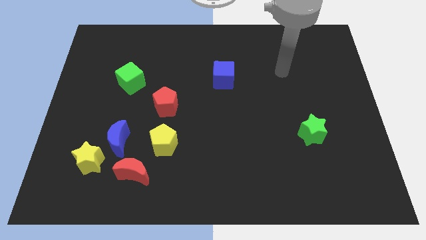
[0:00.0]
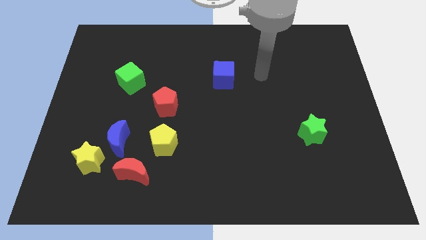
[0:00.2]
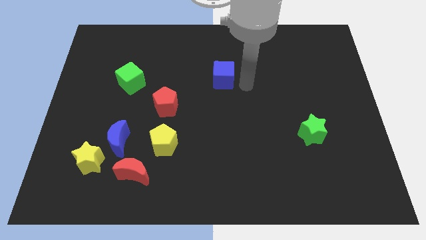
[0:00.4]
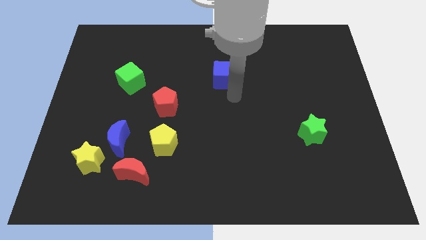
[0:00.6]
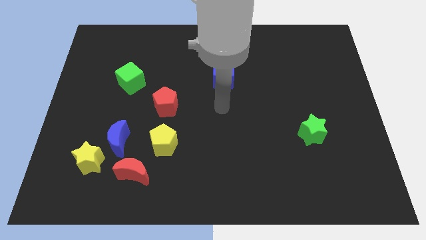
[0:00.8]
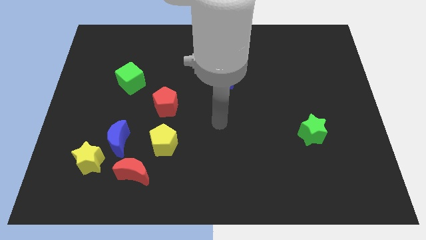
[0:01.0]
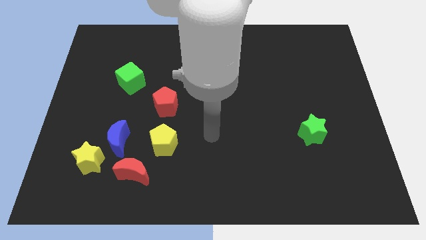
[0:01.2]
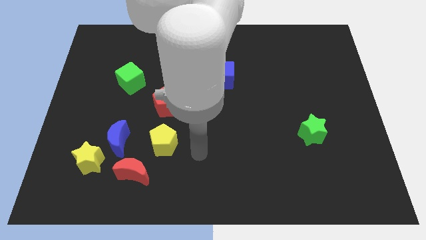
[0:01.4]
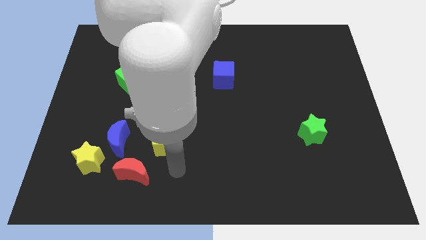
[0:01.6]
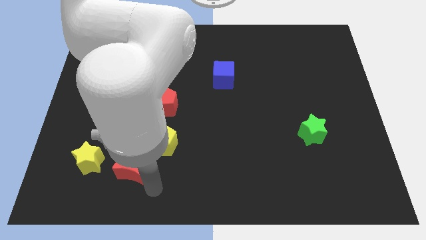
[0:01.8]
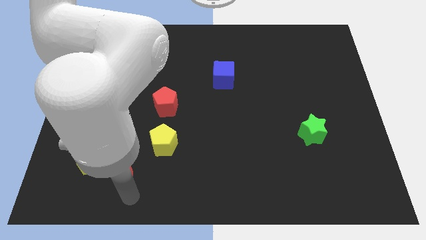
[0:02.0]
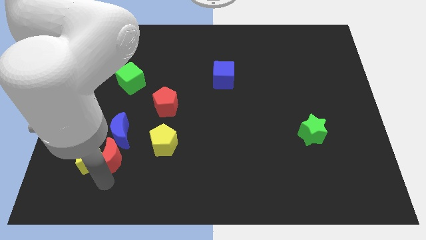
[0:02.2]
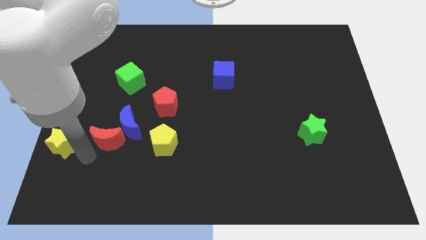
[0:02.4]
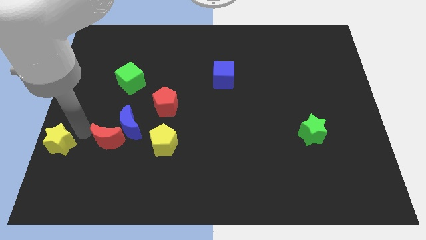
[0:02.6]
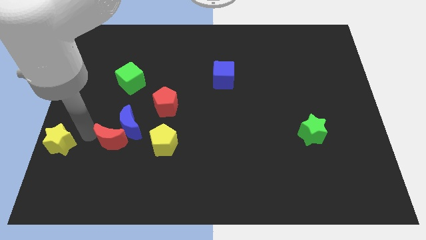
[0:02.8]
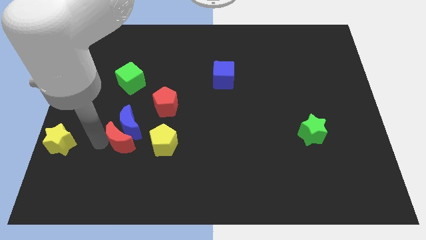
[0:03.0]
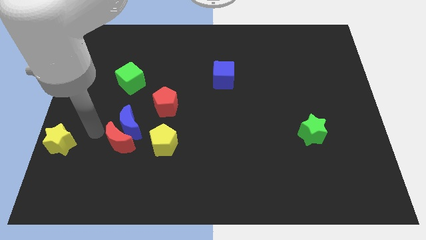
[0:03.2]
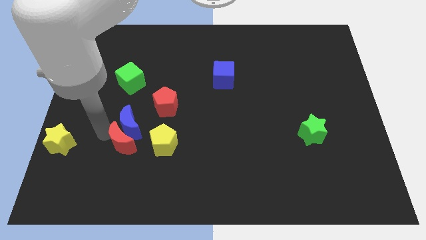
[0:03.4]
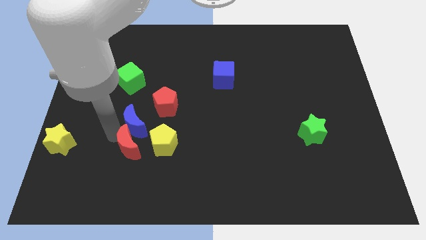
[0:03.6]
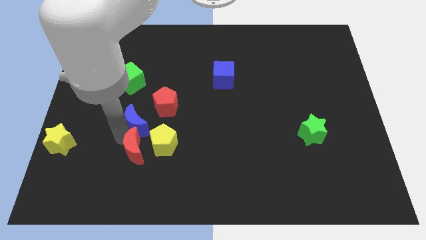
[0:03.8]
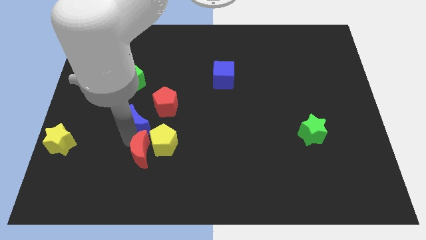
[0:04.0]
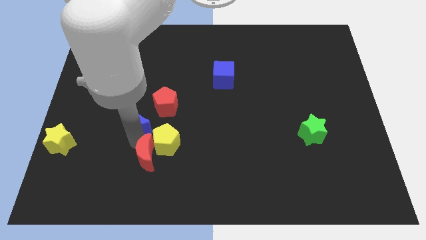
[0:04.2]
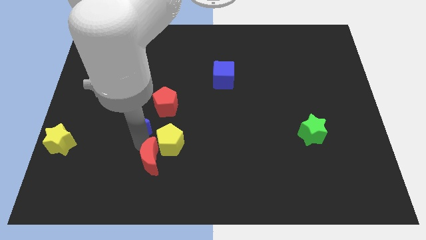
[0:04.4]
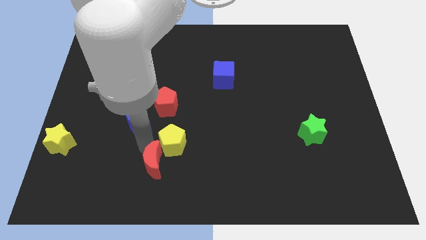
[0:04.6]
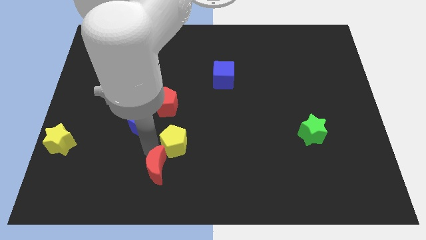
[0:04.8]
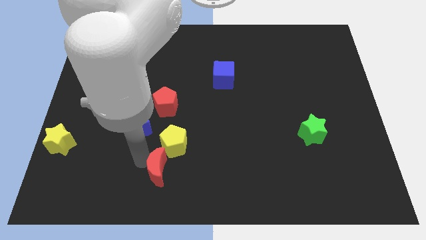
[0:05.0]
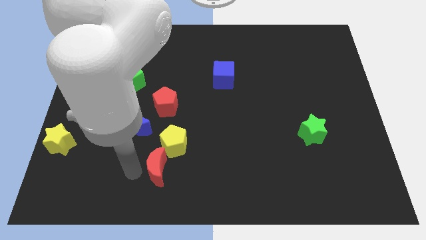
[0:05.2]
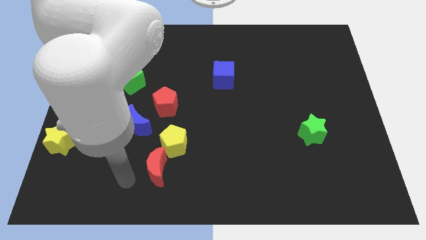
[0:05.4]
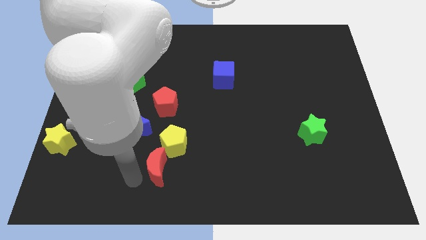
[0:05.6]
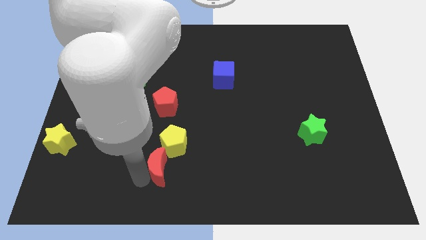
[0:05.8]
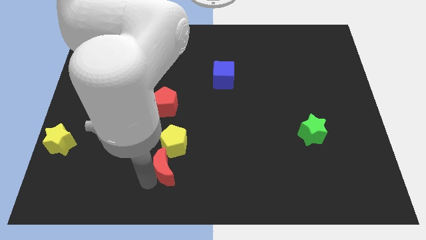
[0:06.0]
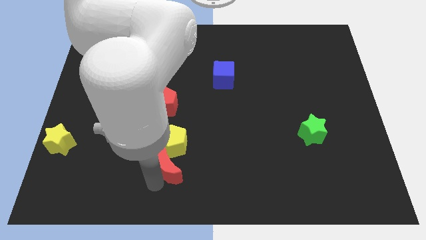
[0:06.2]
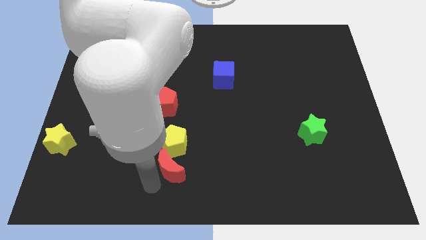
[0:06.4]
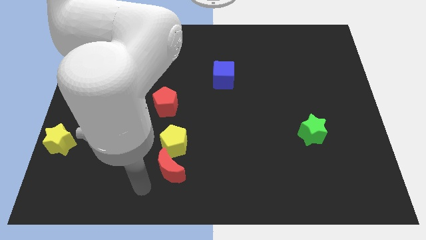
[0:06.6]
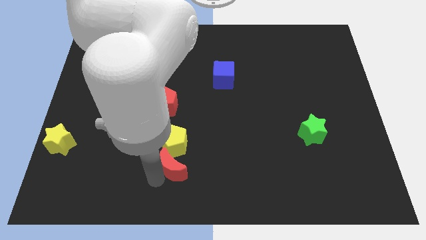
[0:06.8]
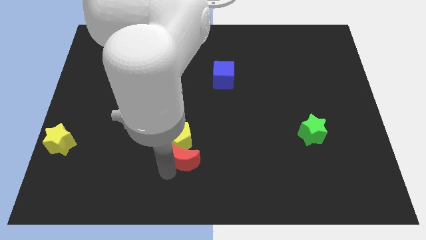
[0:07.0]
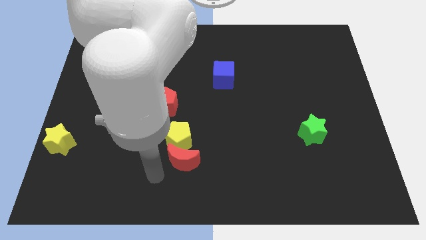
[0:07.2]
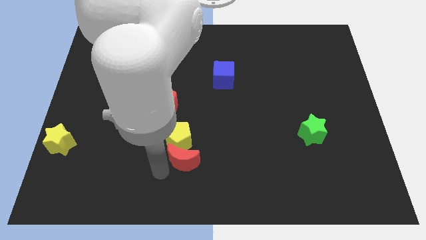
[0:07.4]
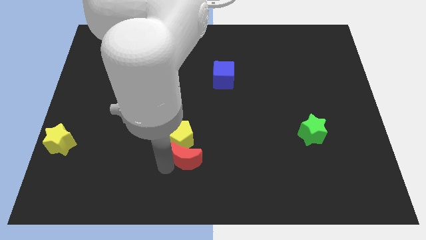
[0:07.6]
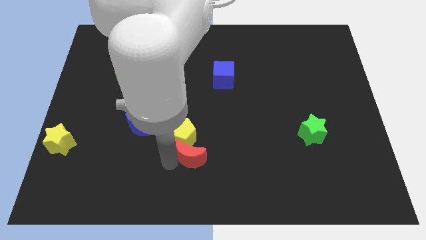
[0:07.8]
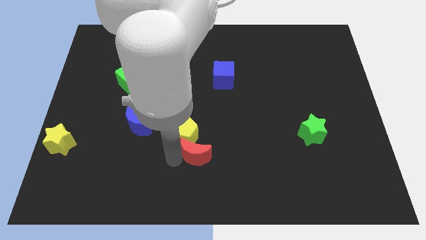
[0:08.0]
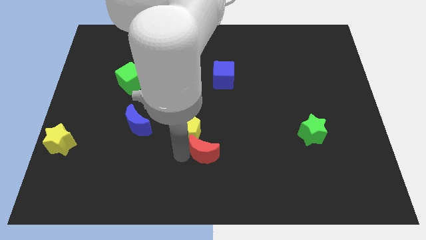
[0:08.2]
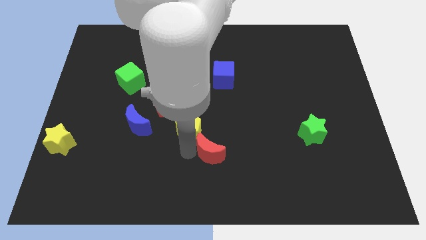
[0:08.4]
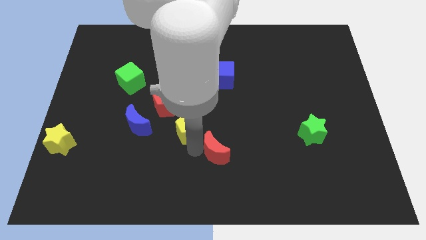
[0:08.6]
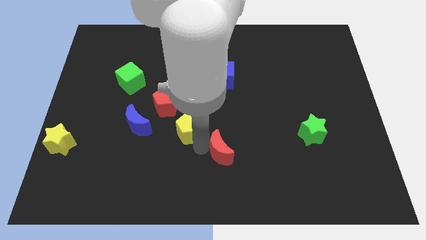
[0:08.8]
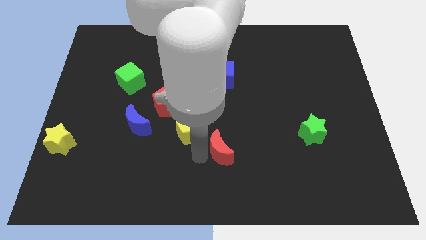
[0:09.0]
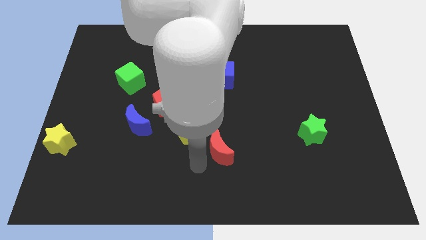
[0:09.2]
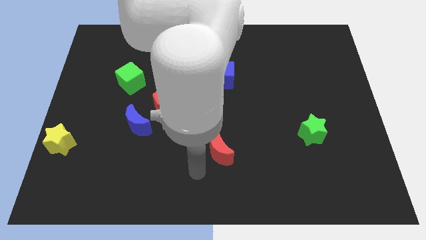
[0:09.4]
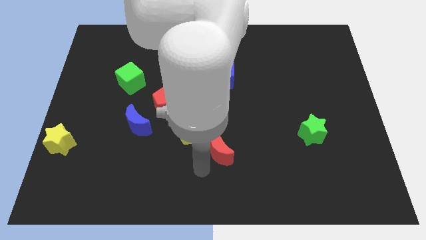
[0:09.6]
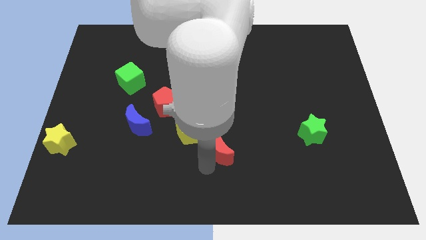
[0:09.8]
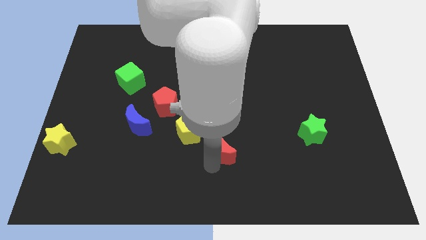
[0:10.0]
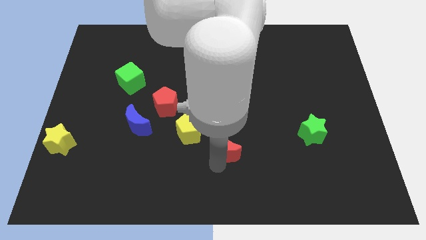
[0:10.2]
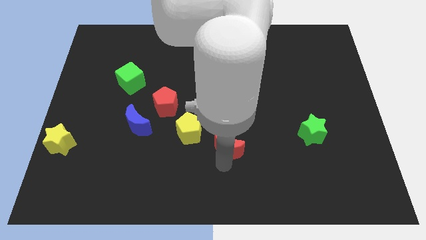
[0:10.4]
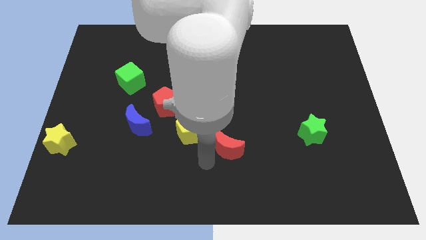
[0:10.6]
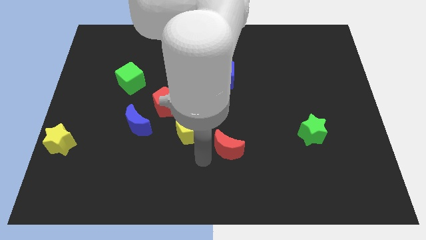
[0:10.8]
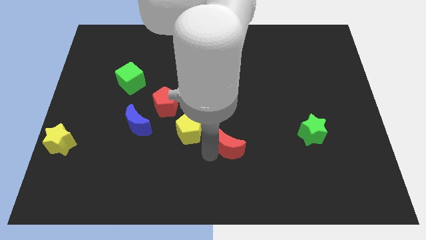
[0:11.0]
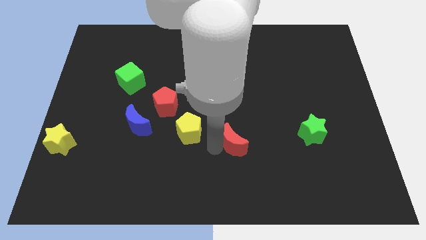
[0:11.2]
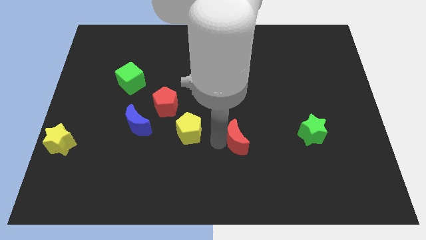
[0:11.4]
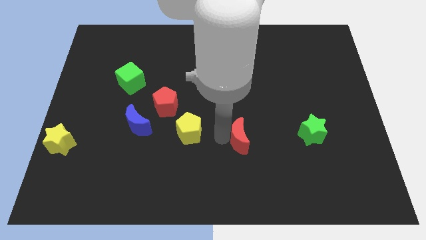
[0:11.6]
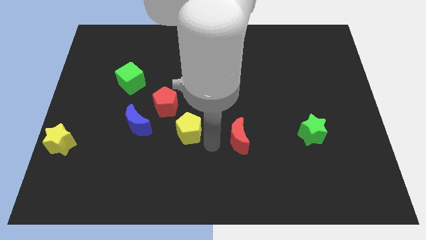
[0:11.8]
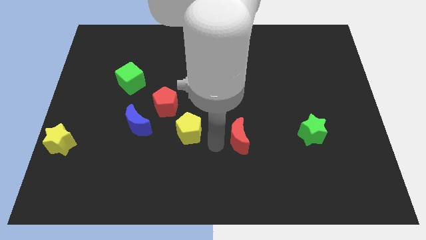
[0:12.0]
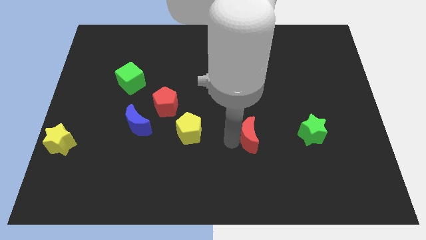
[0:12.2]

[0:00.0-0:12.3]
slide the red moon to the left of the green star

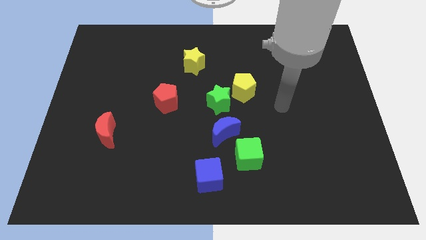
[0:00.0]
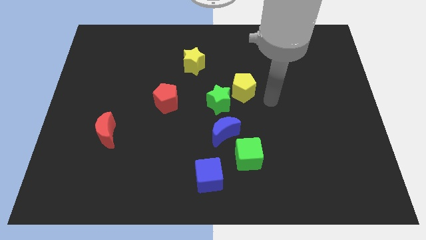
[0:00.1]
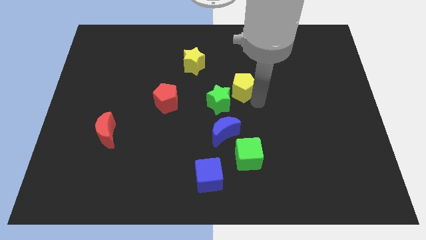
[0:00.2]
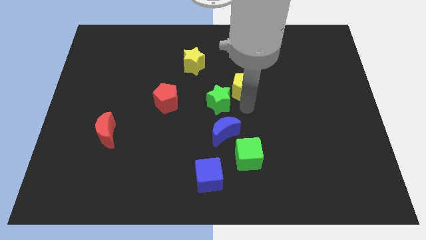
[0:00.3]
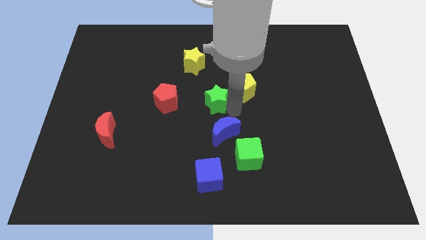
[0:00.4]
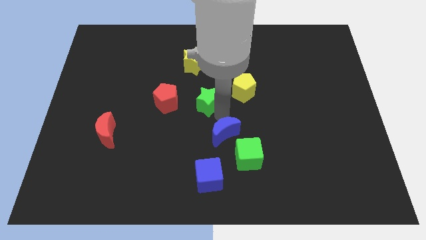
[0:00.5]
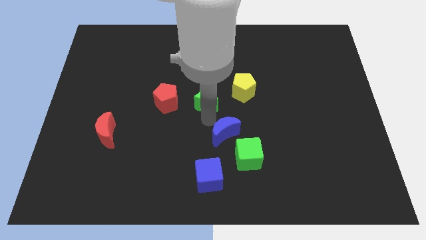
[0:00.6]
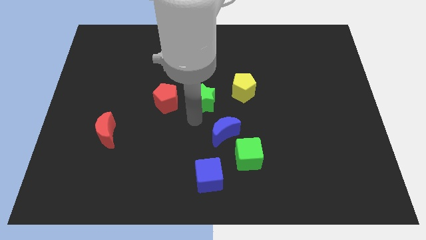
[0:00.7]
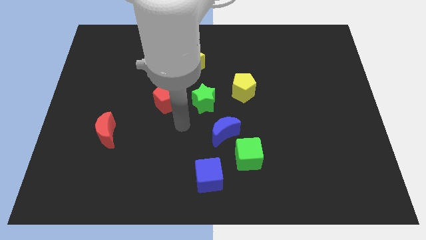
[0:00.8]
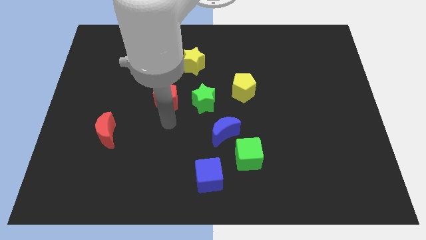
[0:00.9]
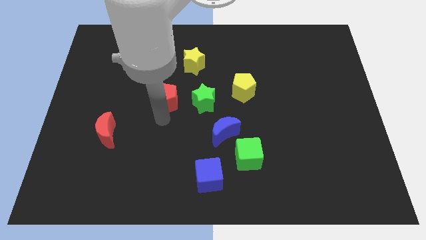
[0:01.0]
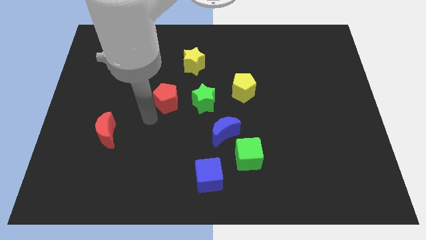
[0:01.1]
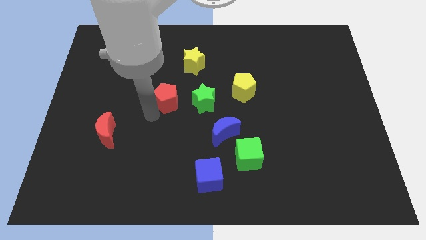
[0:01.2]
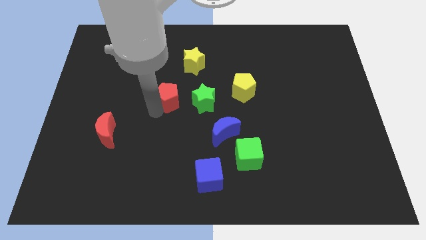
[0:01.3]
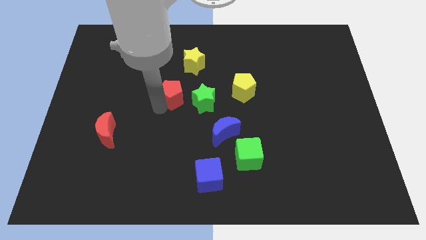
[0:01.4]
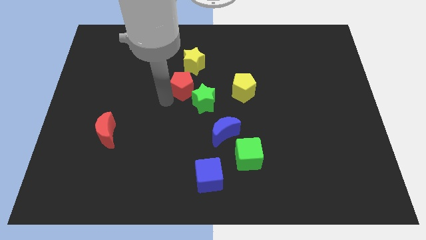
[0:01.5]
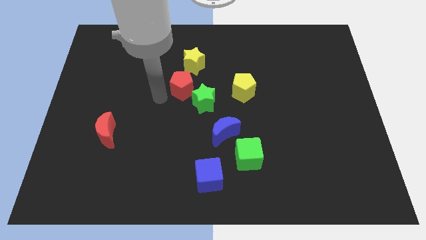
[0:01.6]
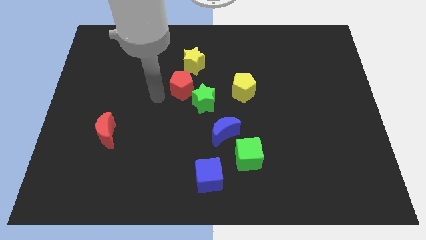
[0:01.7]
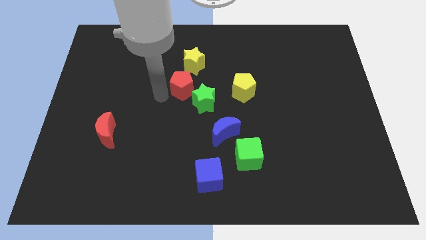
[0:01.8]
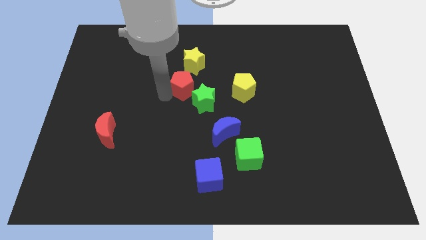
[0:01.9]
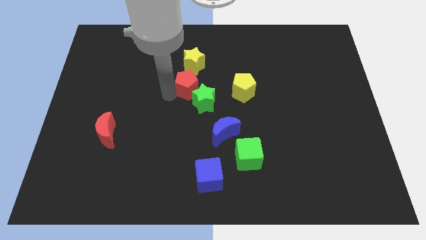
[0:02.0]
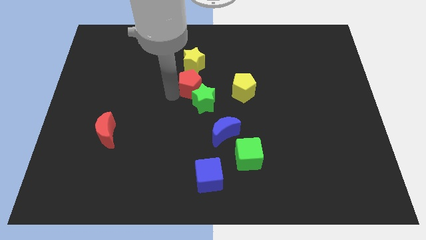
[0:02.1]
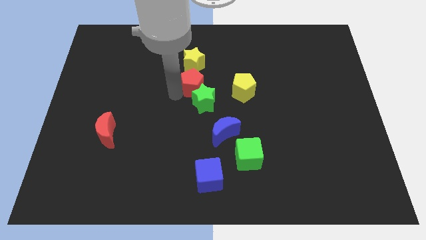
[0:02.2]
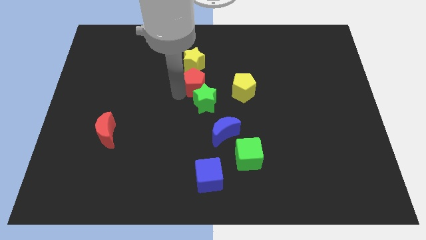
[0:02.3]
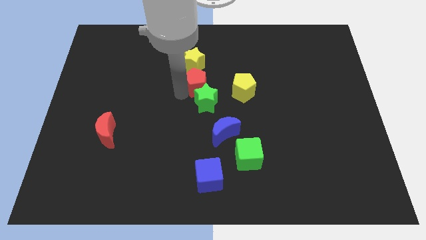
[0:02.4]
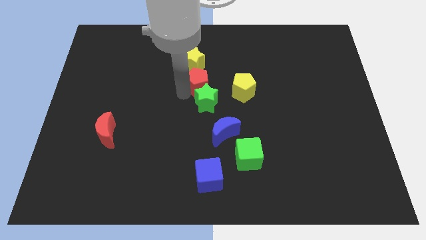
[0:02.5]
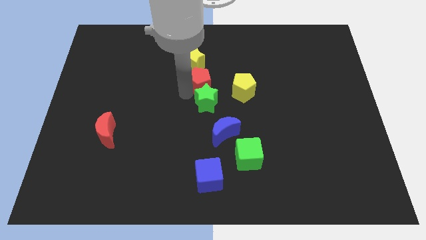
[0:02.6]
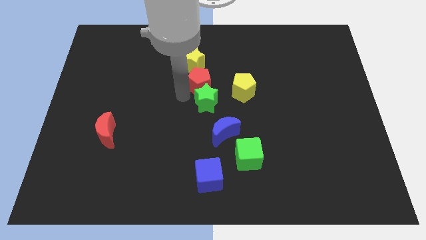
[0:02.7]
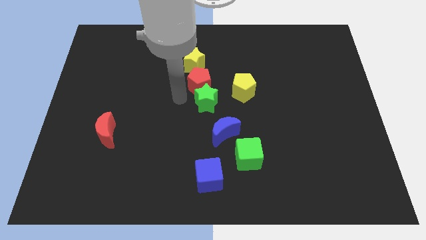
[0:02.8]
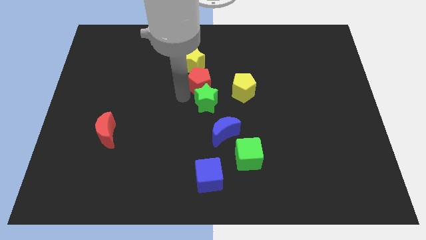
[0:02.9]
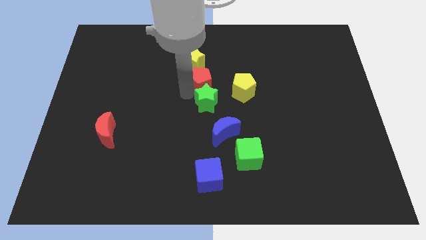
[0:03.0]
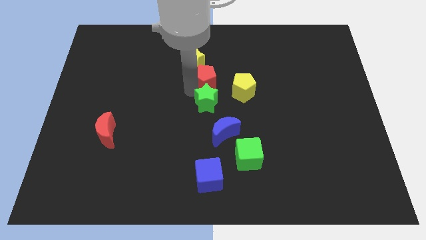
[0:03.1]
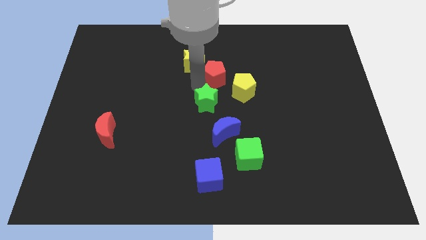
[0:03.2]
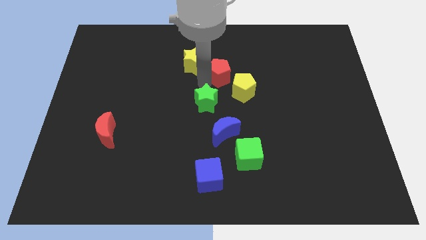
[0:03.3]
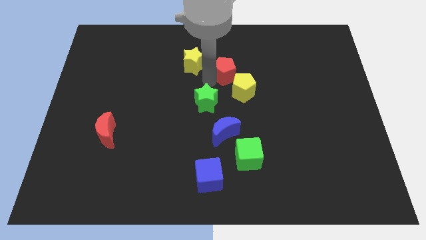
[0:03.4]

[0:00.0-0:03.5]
push the red pentagon to the top side of the yellow pentagon
